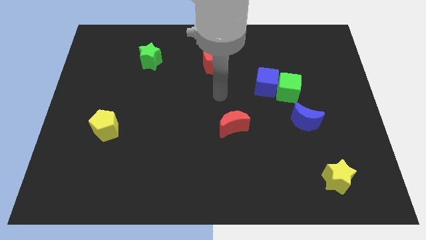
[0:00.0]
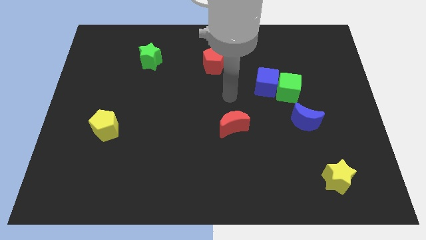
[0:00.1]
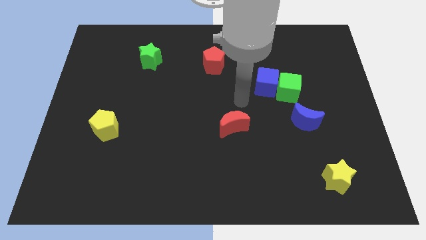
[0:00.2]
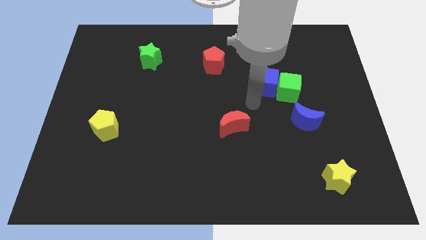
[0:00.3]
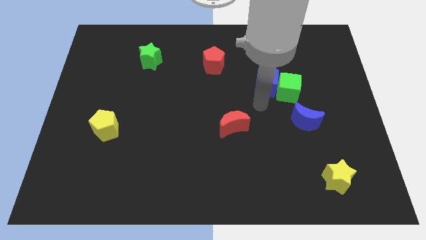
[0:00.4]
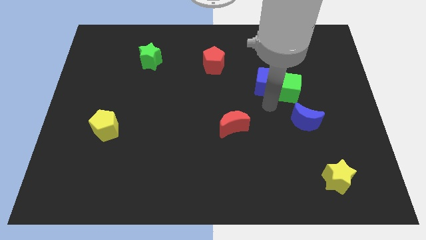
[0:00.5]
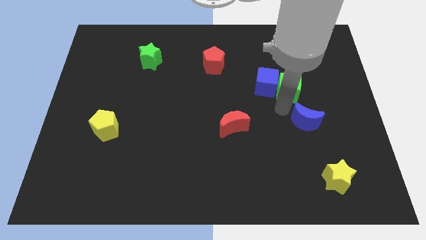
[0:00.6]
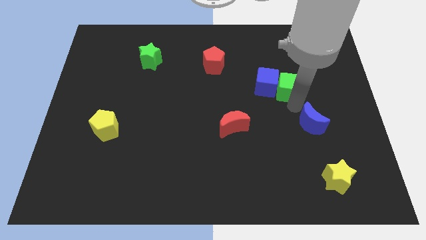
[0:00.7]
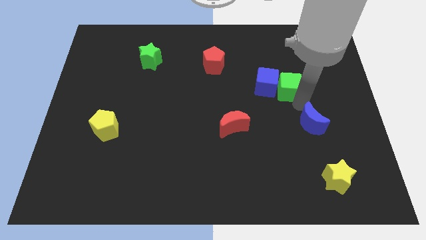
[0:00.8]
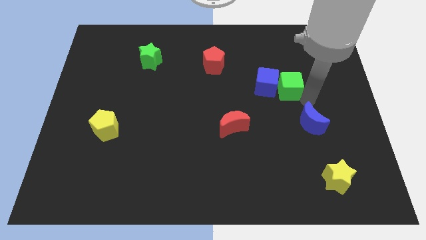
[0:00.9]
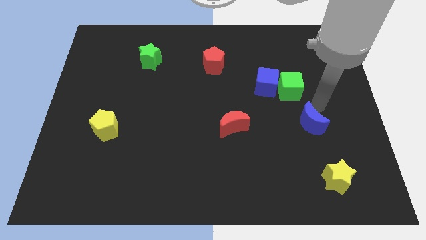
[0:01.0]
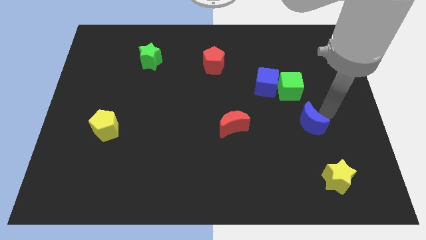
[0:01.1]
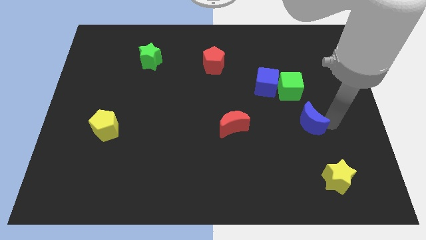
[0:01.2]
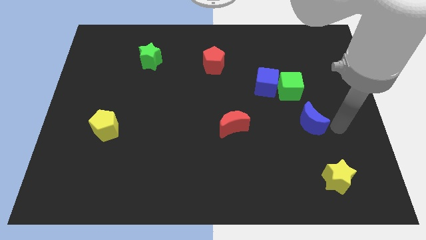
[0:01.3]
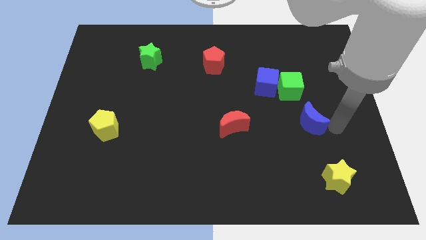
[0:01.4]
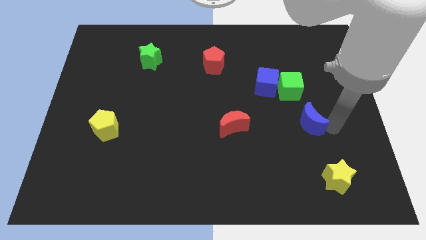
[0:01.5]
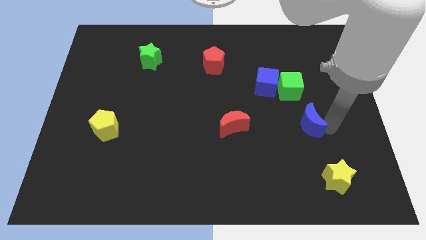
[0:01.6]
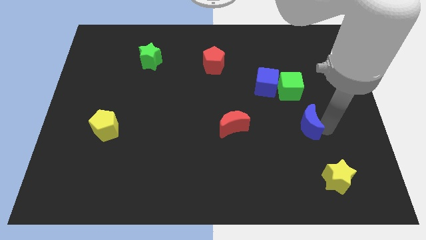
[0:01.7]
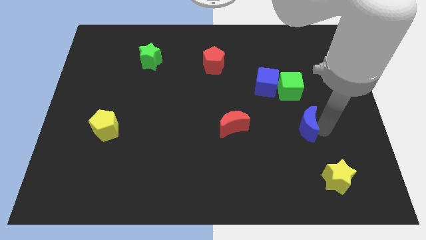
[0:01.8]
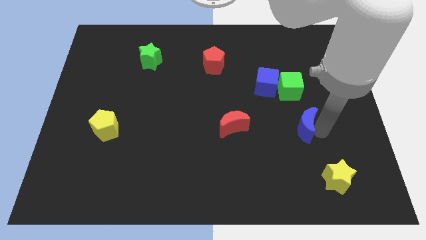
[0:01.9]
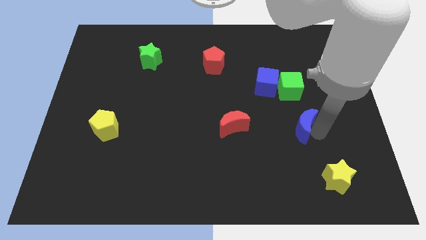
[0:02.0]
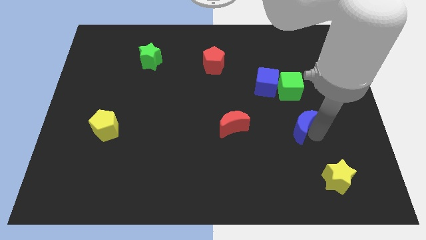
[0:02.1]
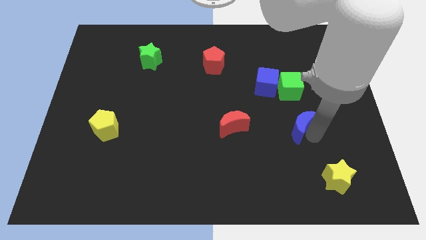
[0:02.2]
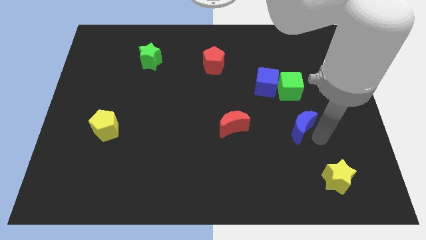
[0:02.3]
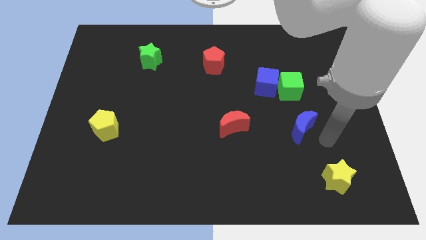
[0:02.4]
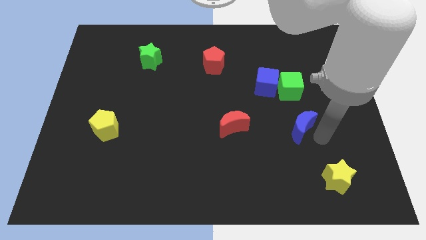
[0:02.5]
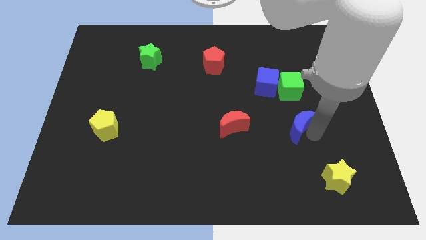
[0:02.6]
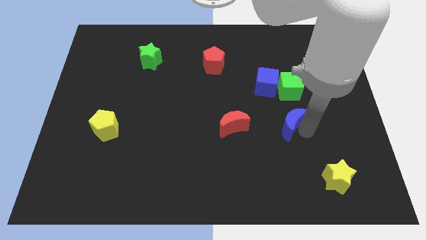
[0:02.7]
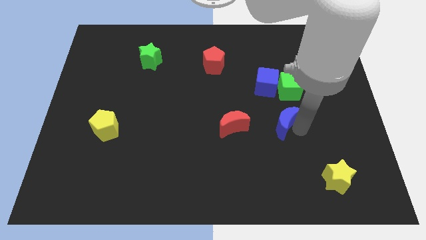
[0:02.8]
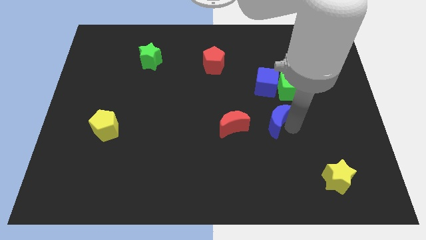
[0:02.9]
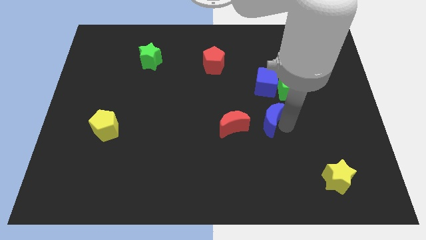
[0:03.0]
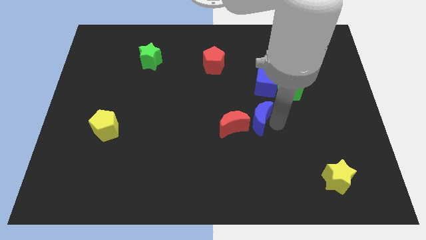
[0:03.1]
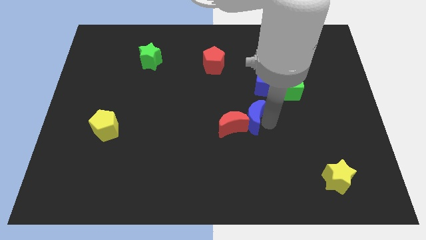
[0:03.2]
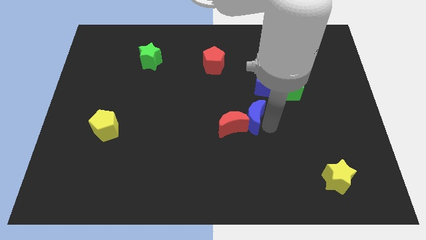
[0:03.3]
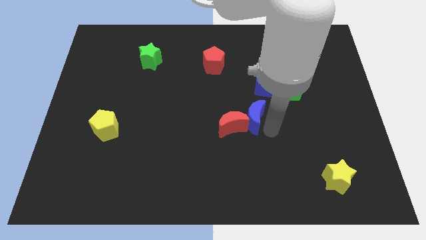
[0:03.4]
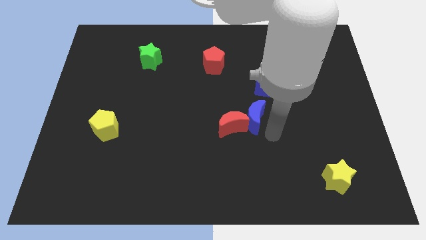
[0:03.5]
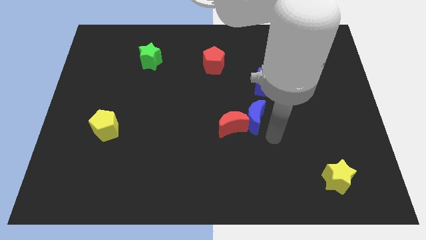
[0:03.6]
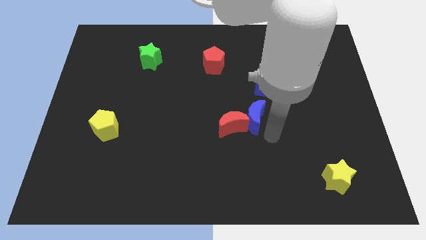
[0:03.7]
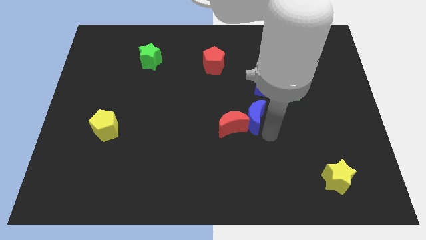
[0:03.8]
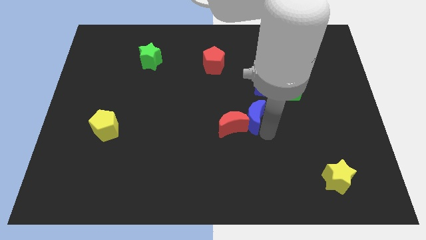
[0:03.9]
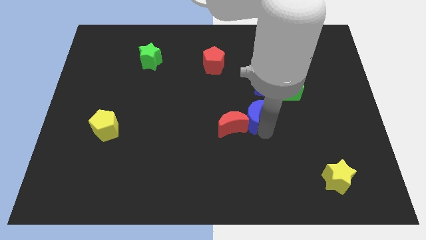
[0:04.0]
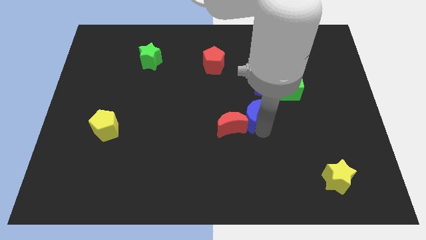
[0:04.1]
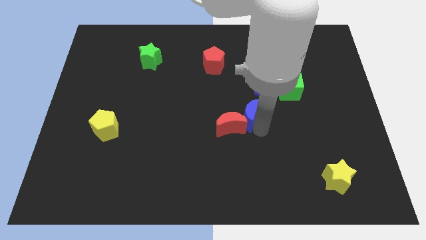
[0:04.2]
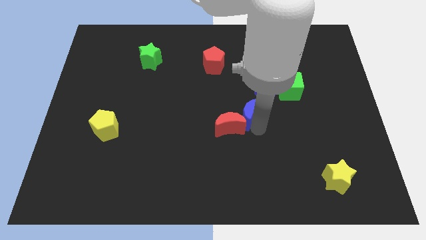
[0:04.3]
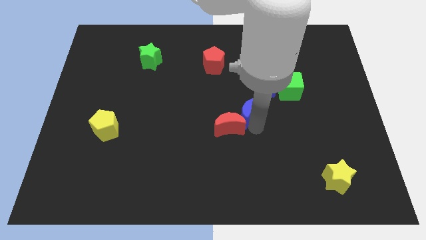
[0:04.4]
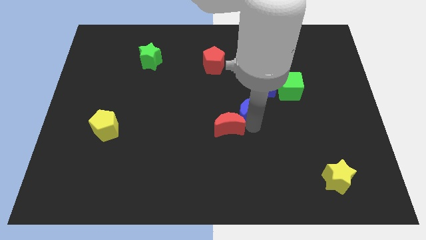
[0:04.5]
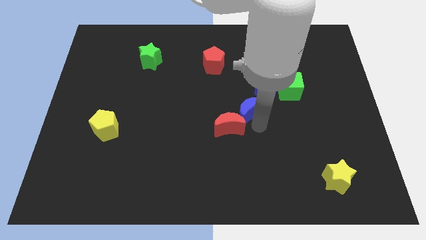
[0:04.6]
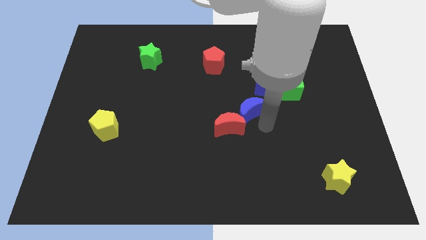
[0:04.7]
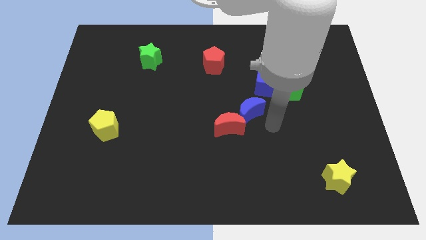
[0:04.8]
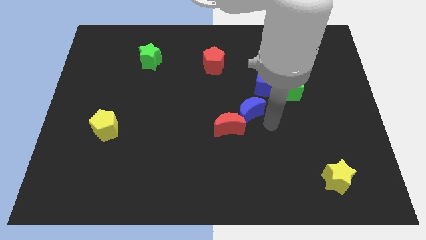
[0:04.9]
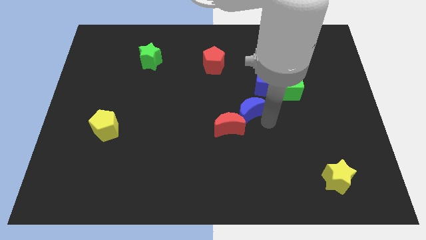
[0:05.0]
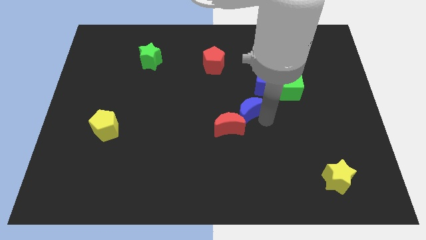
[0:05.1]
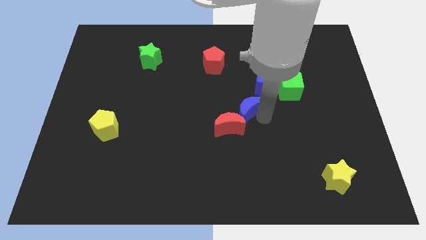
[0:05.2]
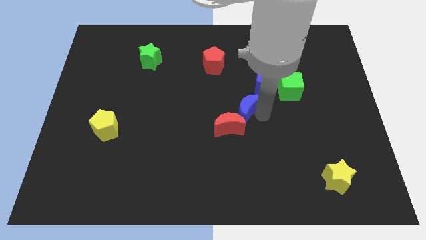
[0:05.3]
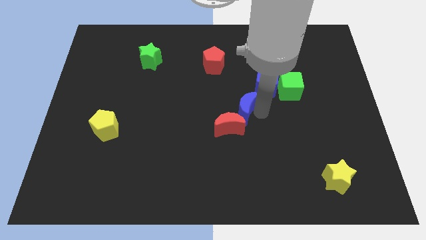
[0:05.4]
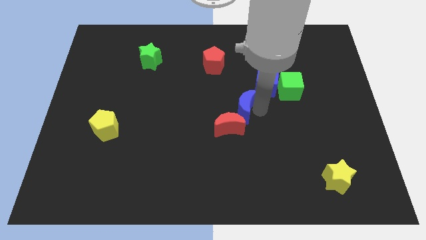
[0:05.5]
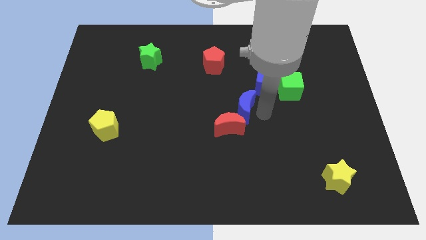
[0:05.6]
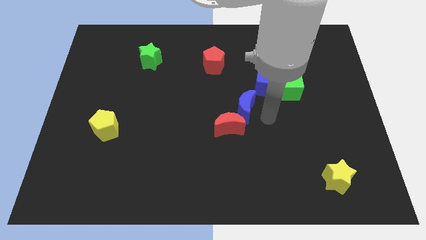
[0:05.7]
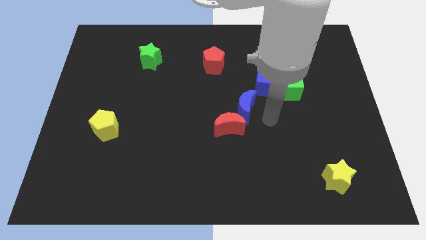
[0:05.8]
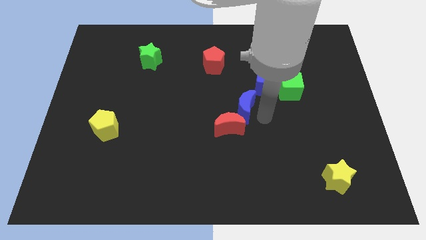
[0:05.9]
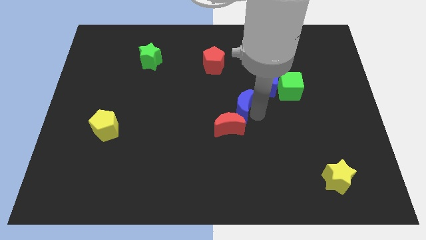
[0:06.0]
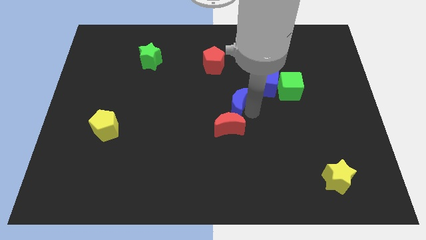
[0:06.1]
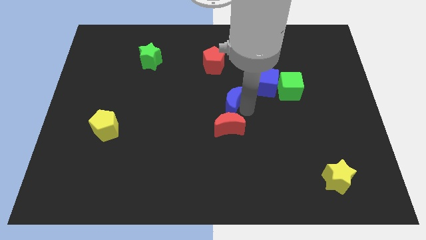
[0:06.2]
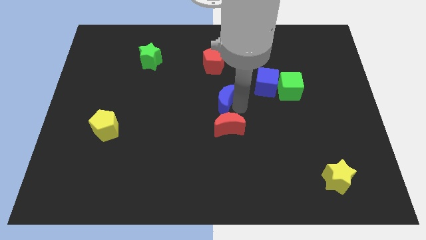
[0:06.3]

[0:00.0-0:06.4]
push the blue moon to the bottom side of the red pentagon

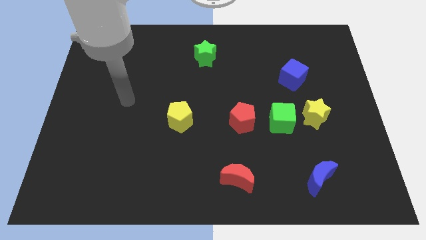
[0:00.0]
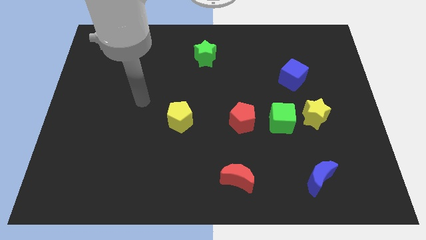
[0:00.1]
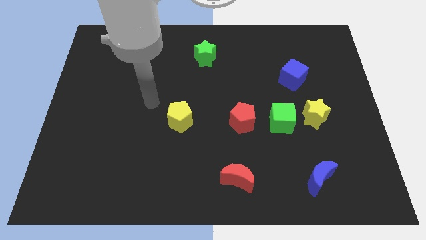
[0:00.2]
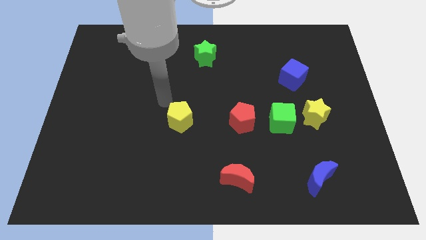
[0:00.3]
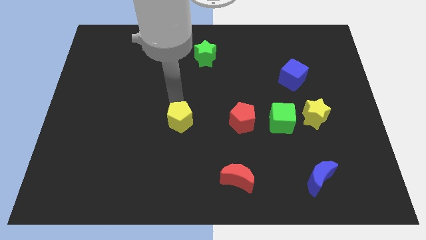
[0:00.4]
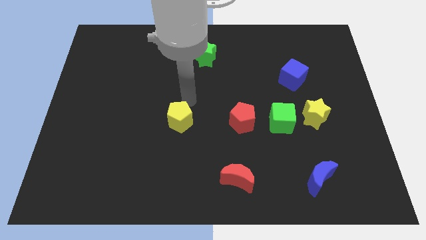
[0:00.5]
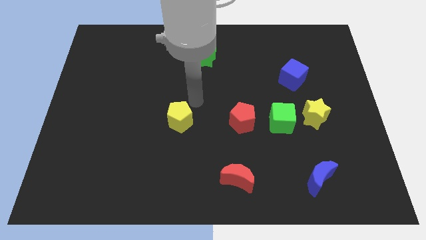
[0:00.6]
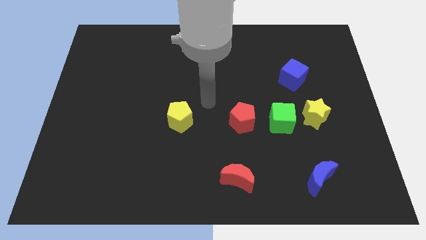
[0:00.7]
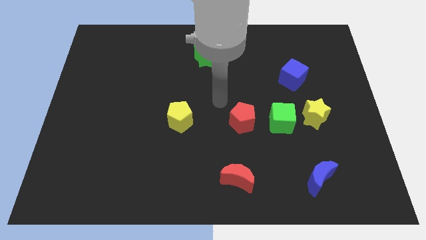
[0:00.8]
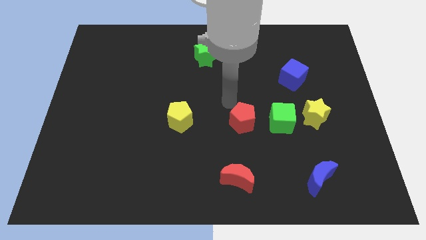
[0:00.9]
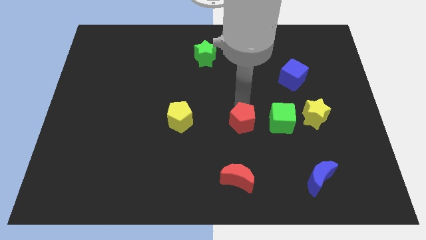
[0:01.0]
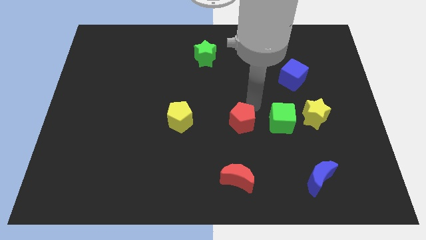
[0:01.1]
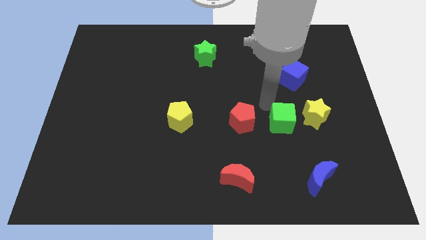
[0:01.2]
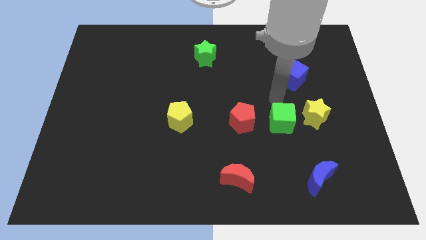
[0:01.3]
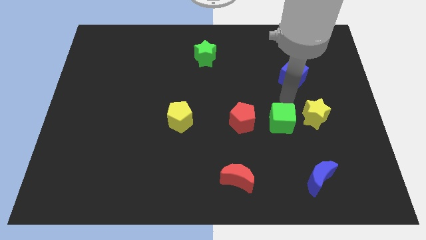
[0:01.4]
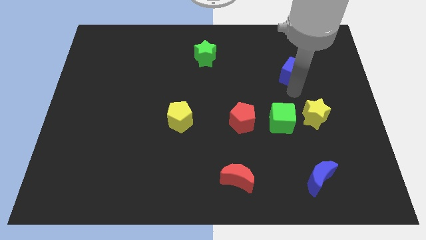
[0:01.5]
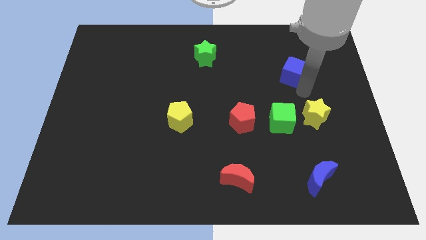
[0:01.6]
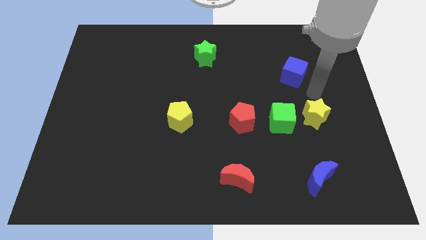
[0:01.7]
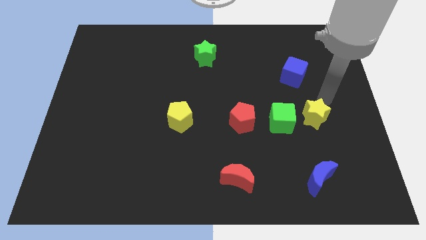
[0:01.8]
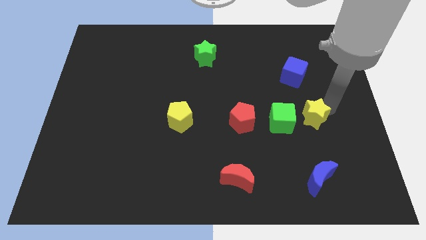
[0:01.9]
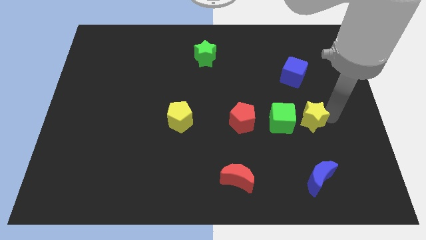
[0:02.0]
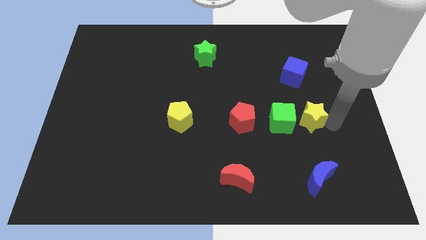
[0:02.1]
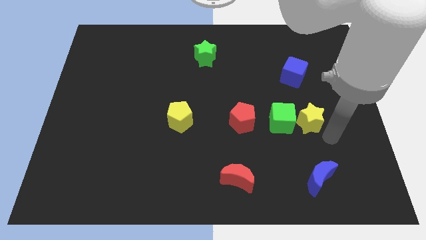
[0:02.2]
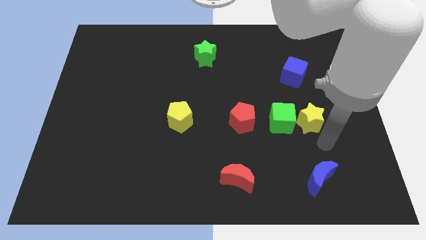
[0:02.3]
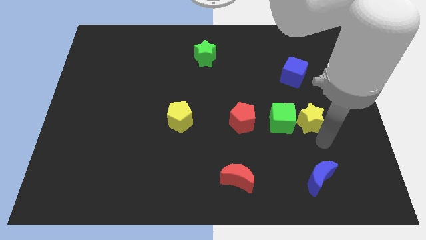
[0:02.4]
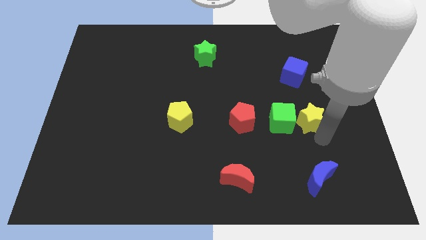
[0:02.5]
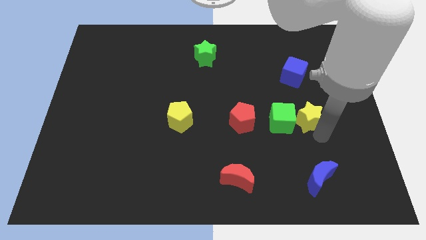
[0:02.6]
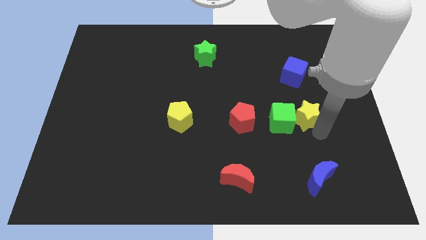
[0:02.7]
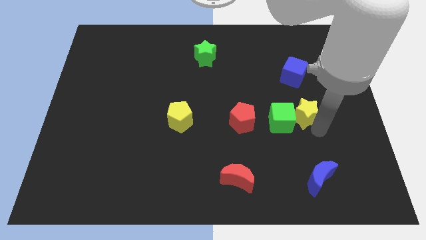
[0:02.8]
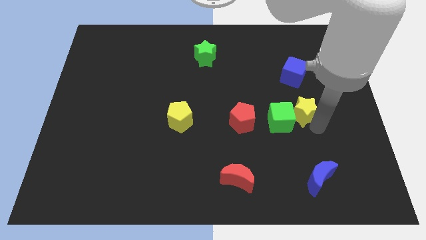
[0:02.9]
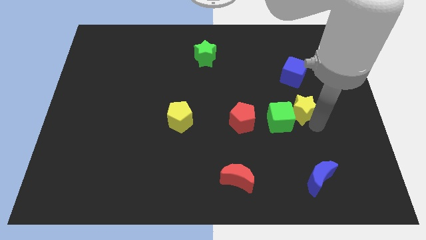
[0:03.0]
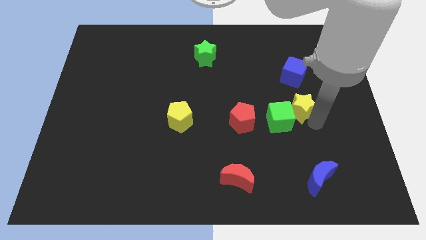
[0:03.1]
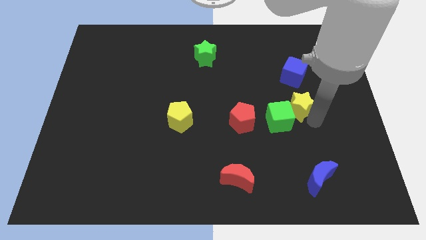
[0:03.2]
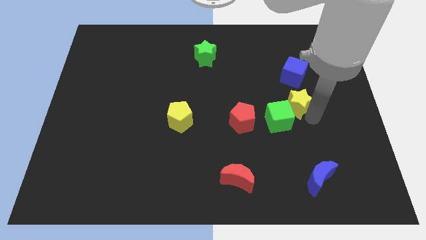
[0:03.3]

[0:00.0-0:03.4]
slide the yellow star to the top side of the green cube
